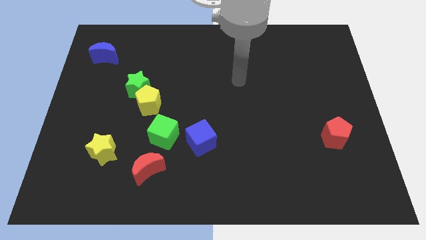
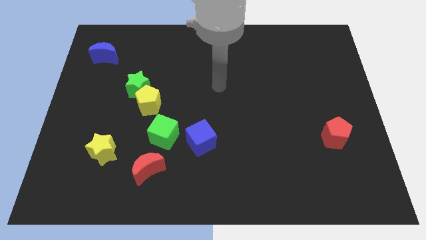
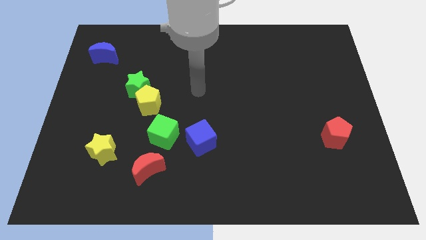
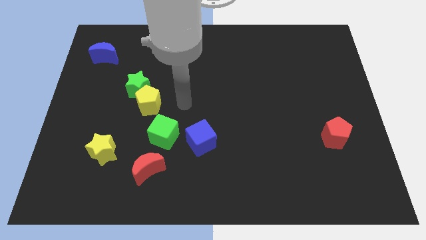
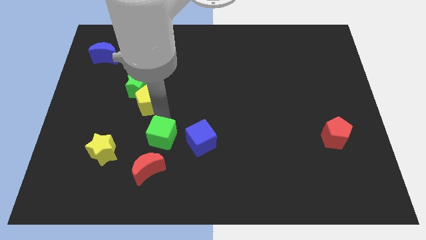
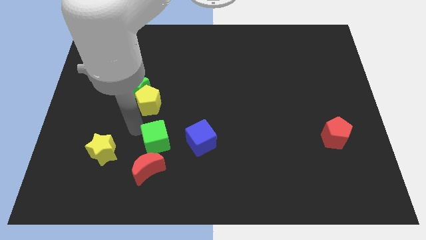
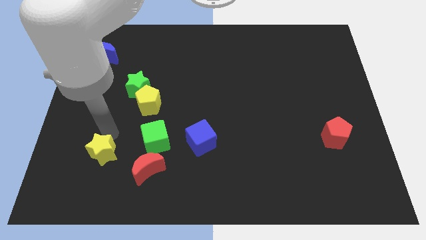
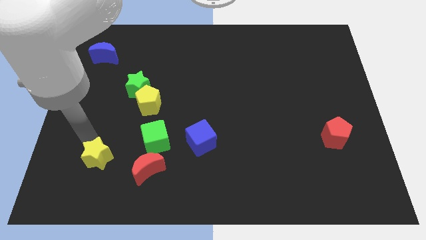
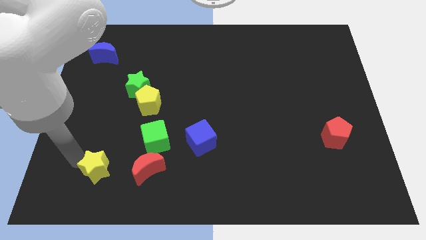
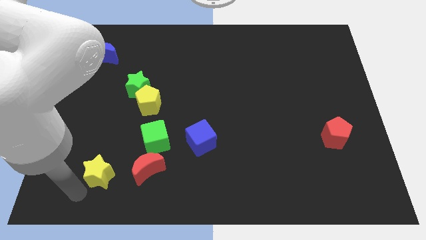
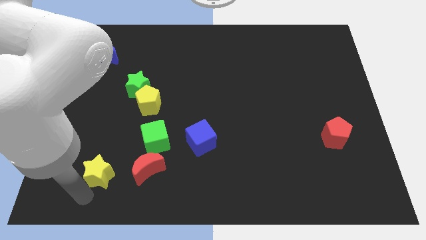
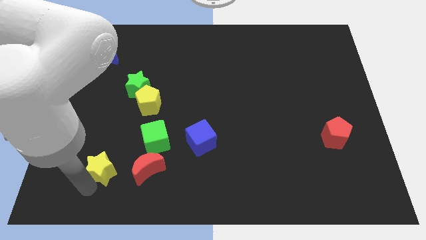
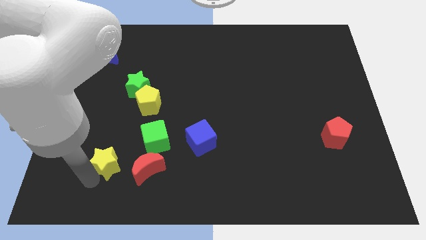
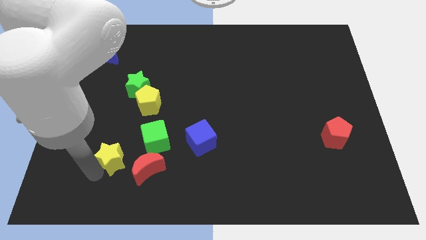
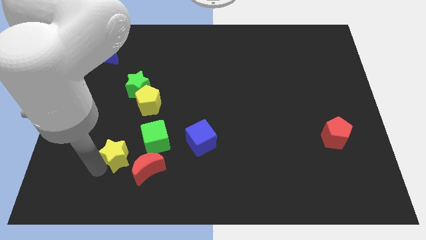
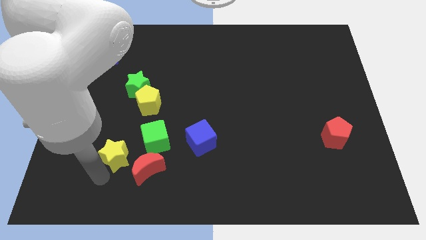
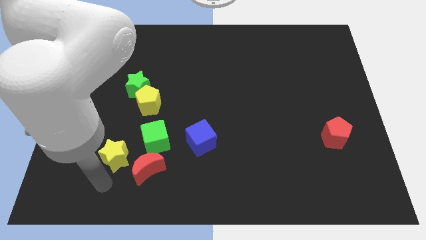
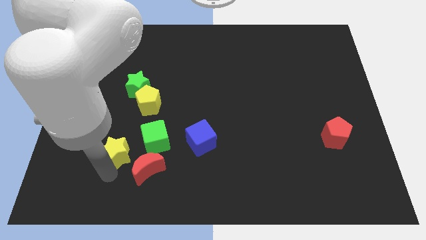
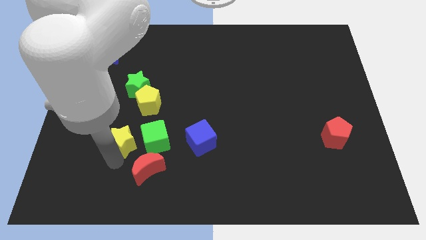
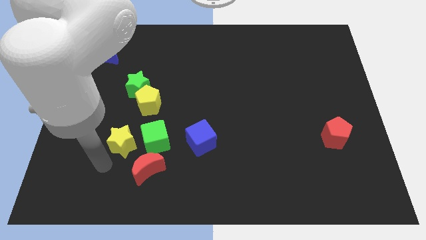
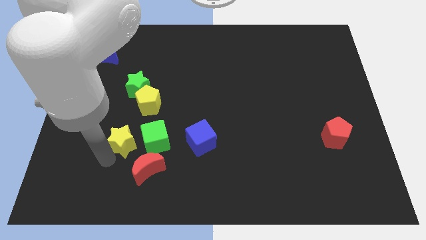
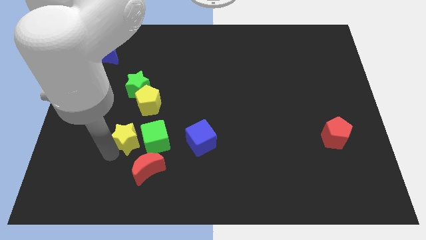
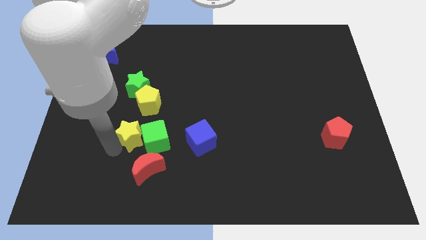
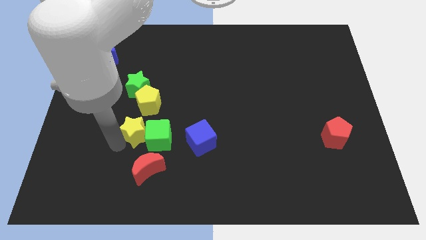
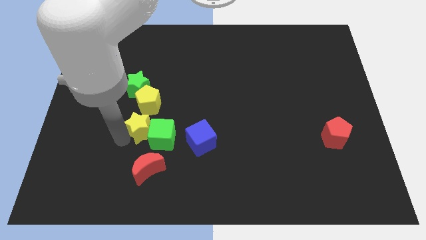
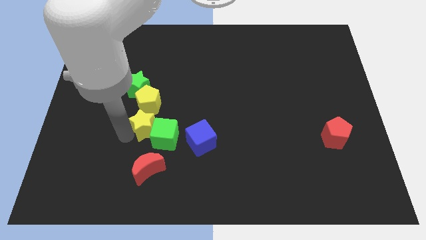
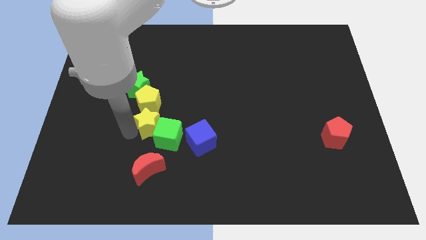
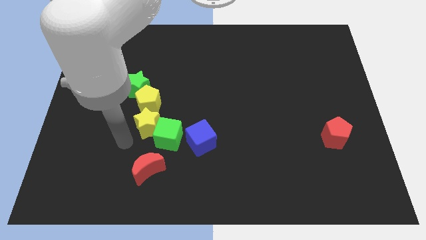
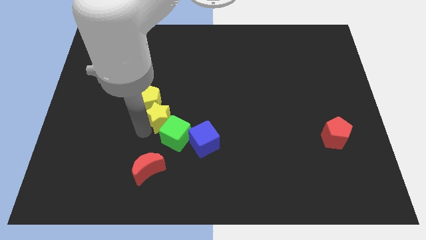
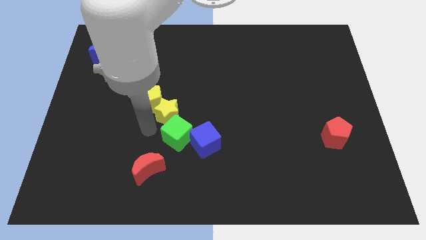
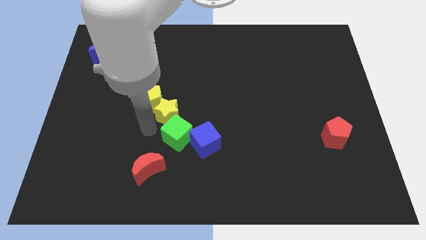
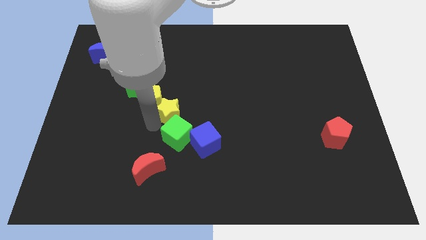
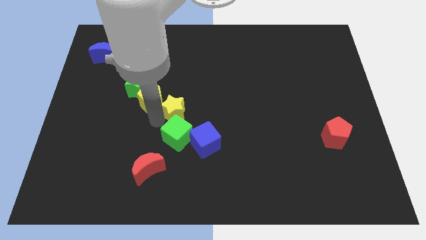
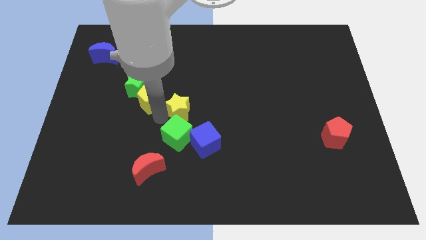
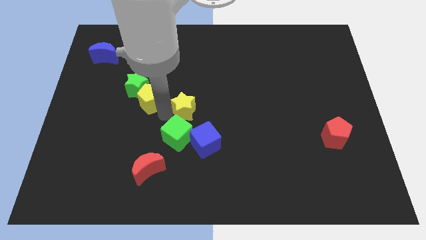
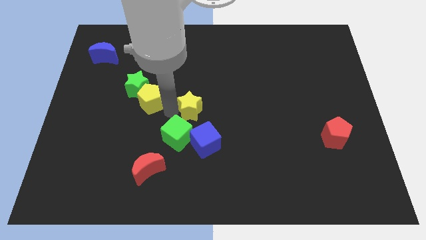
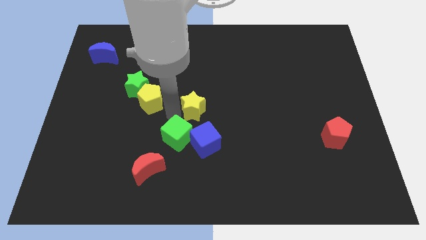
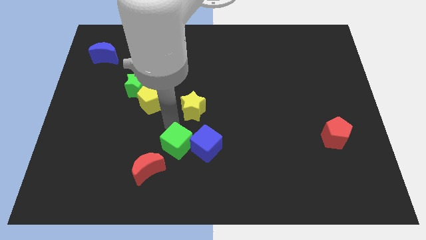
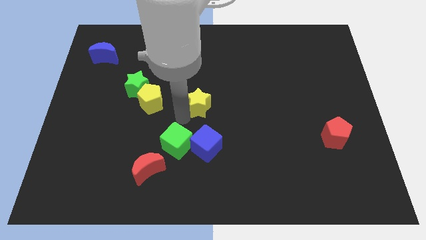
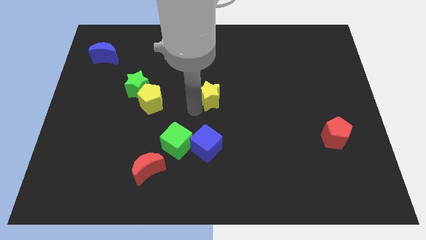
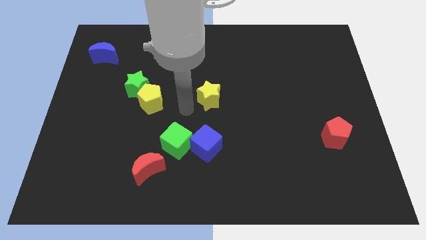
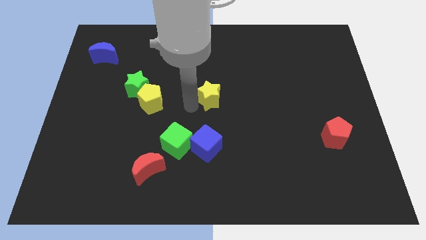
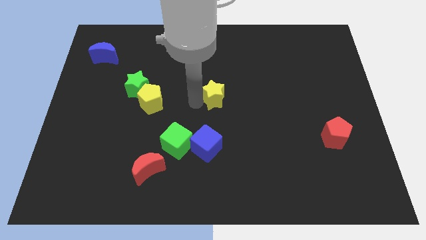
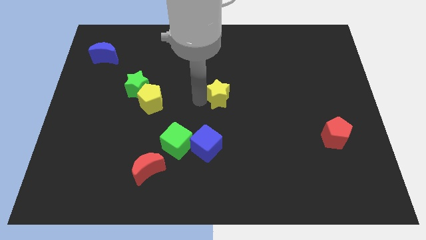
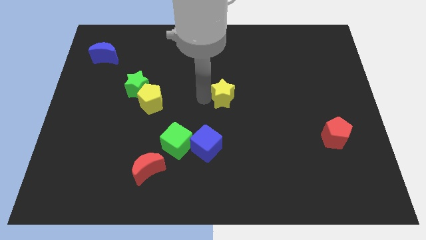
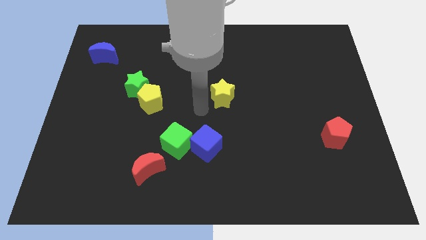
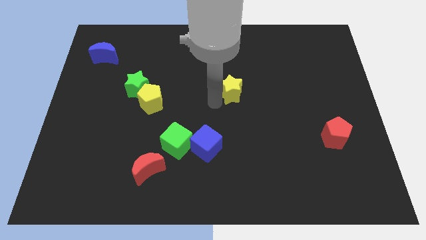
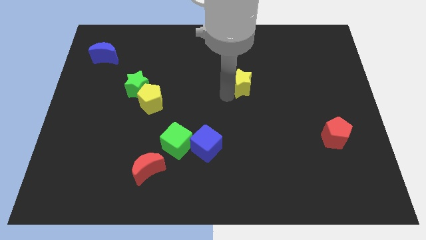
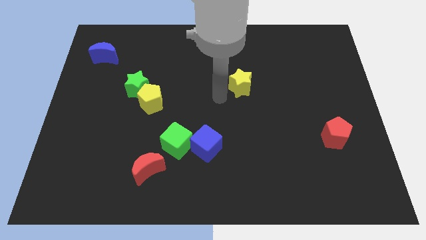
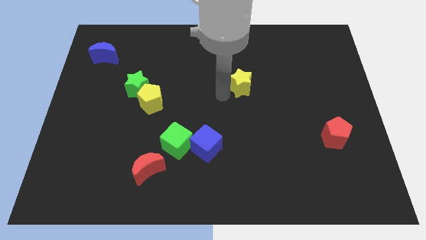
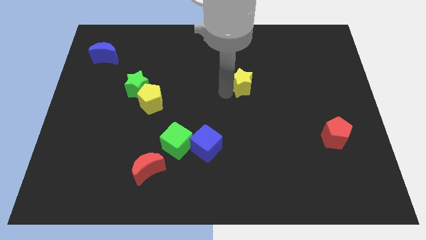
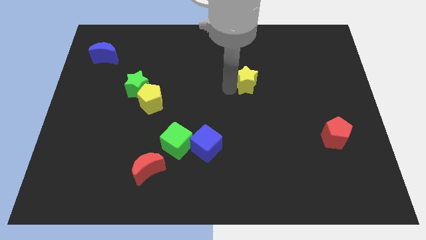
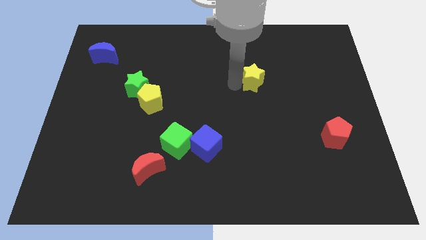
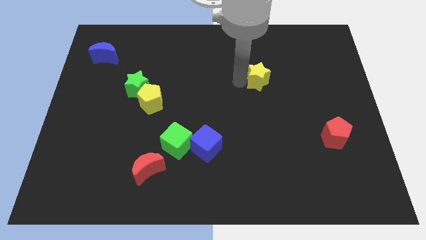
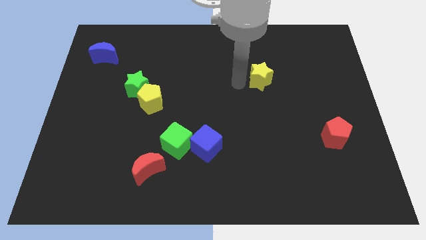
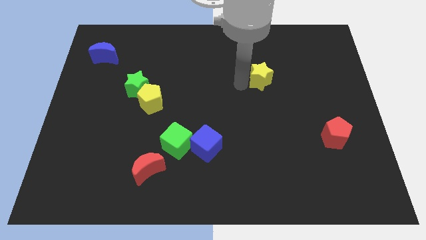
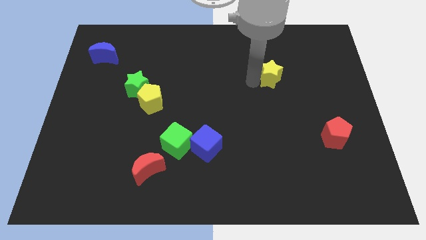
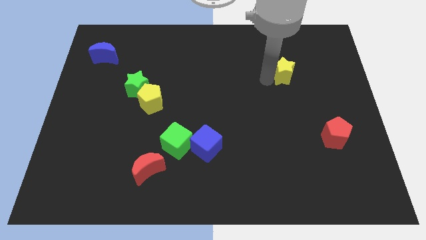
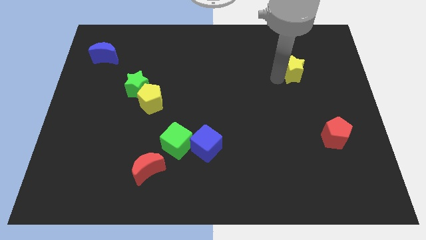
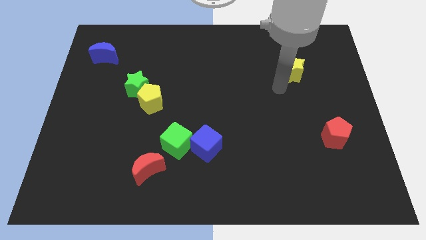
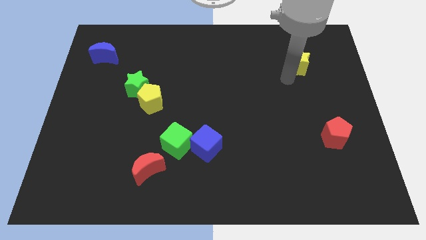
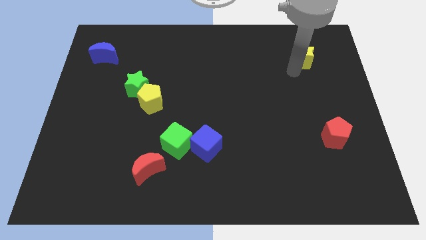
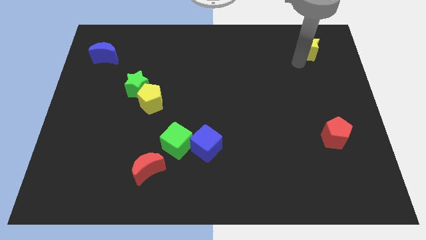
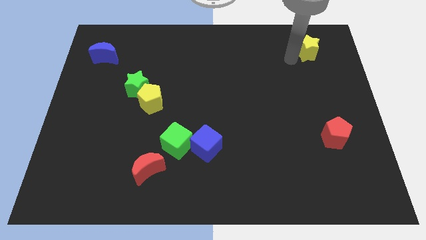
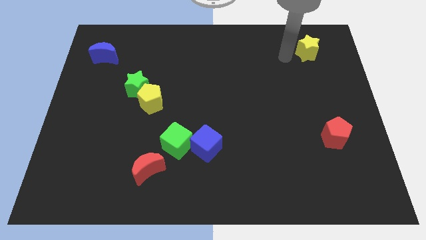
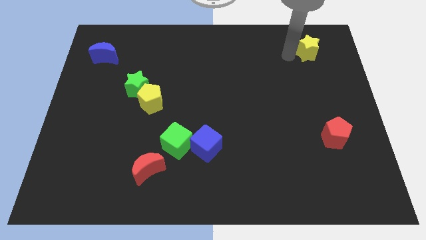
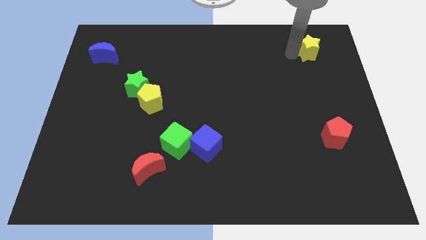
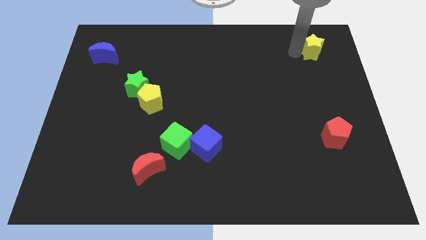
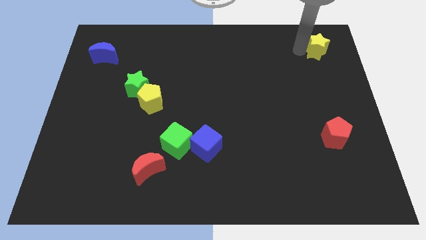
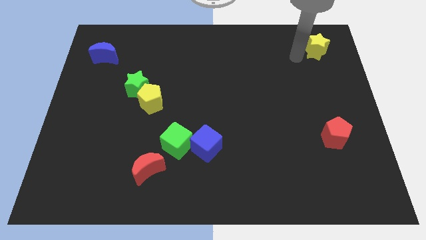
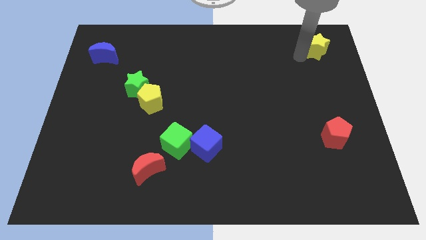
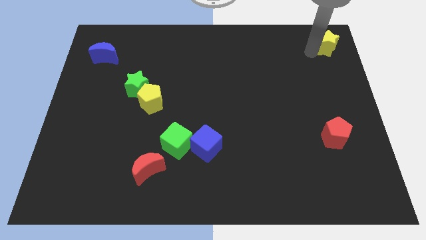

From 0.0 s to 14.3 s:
move the yellow star to the top right corner
